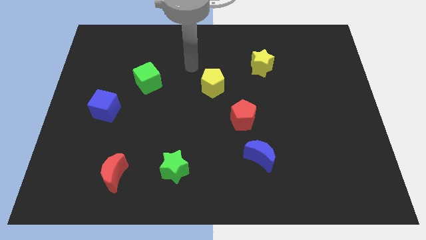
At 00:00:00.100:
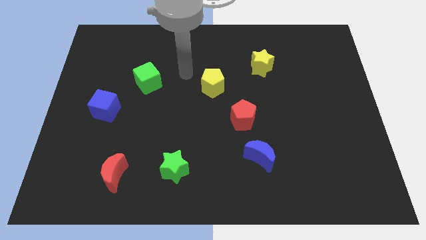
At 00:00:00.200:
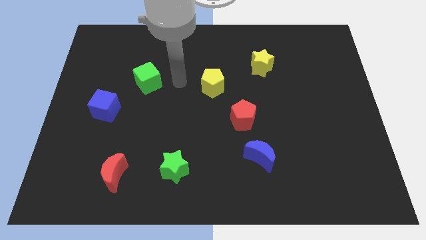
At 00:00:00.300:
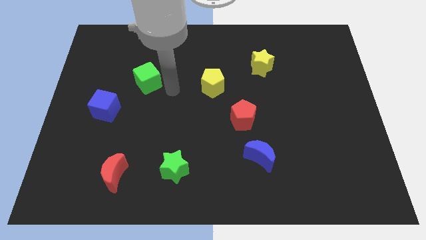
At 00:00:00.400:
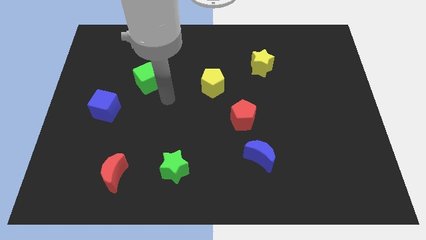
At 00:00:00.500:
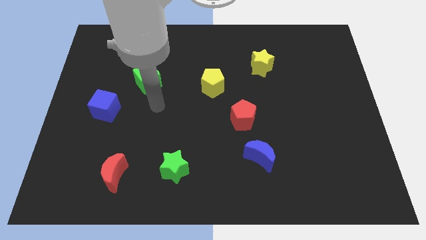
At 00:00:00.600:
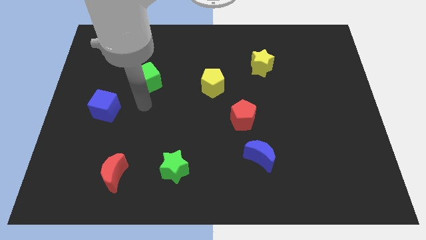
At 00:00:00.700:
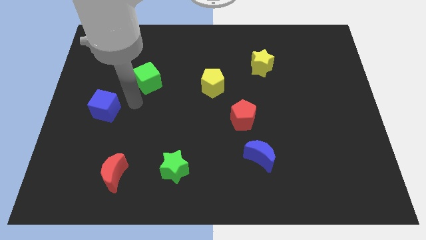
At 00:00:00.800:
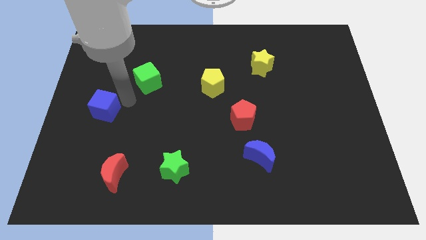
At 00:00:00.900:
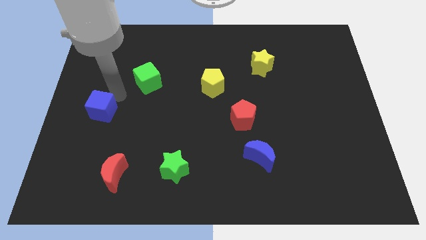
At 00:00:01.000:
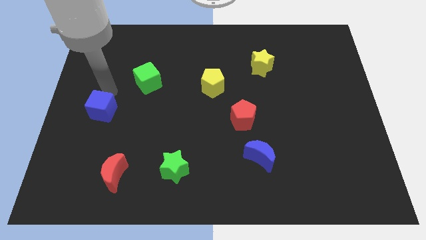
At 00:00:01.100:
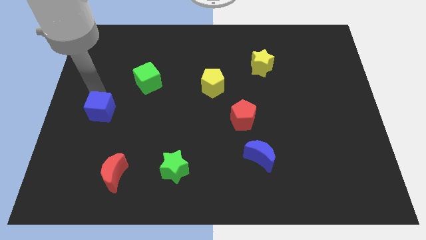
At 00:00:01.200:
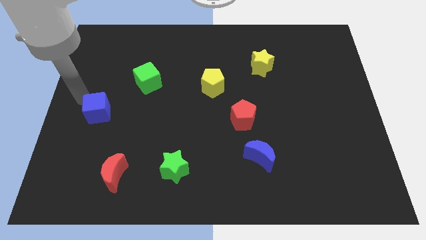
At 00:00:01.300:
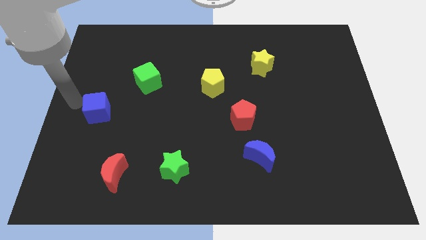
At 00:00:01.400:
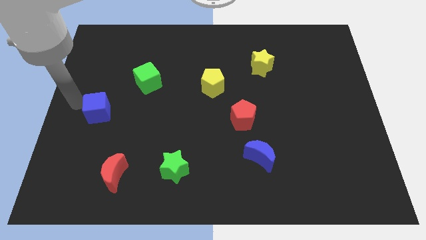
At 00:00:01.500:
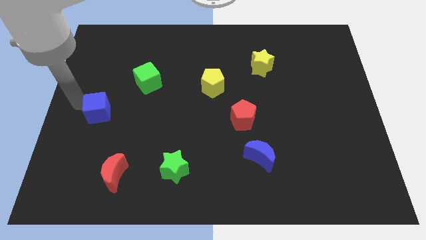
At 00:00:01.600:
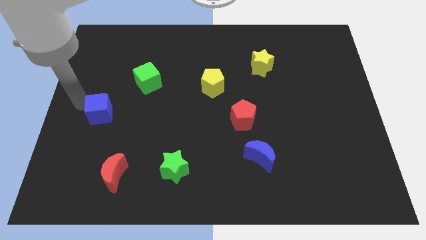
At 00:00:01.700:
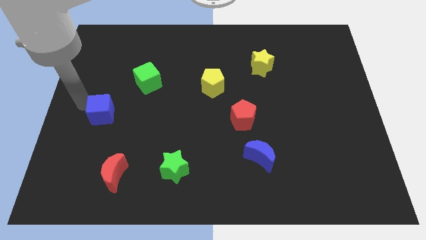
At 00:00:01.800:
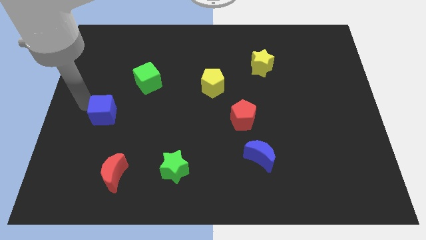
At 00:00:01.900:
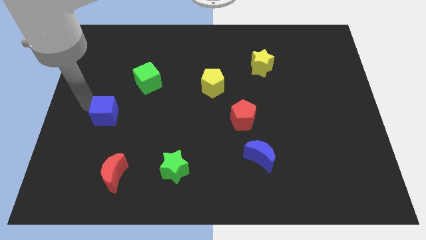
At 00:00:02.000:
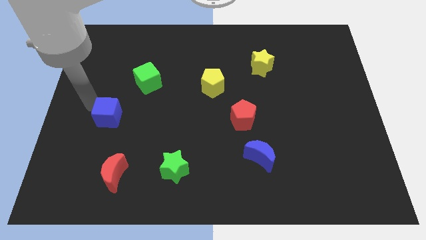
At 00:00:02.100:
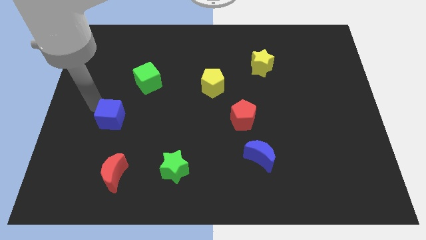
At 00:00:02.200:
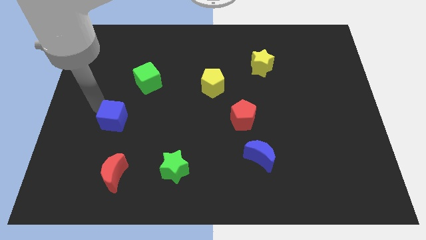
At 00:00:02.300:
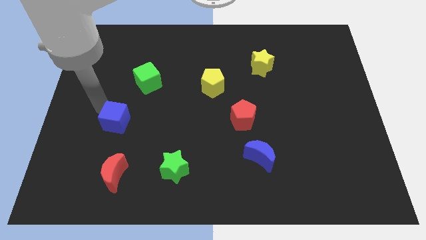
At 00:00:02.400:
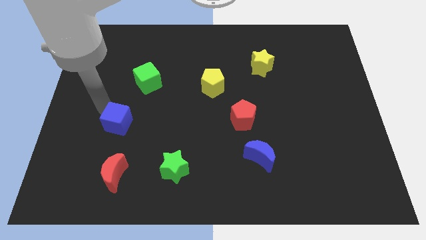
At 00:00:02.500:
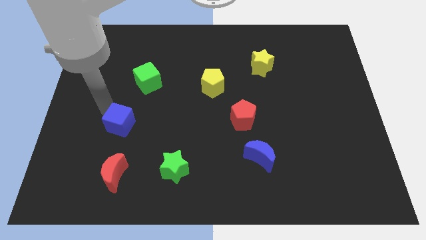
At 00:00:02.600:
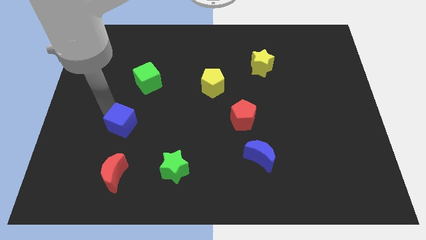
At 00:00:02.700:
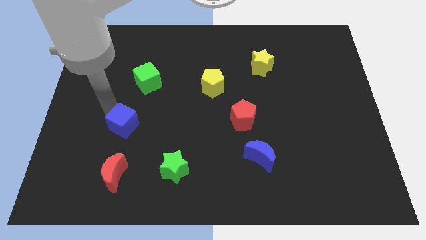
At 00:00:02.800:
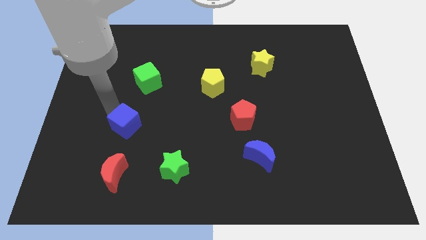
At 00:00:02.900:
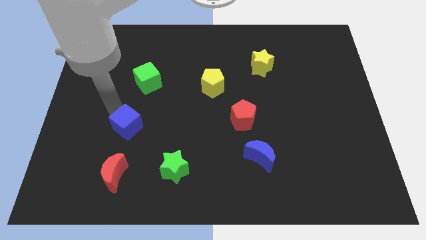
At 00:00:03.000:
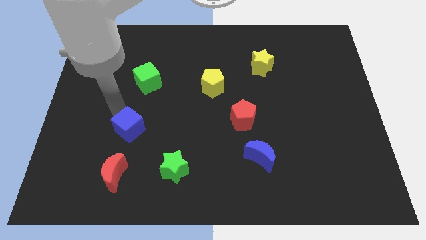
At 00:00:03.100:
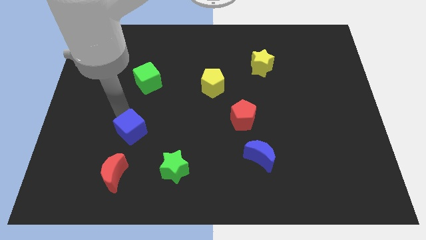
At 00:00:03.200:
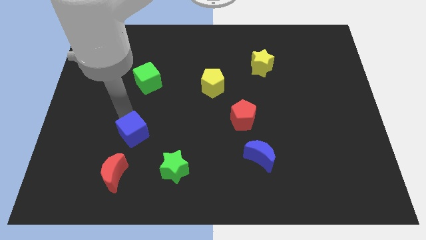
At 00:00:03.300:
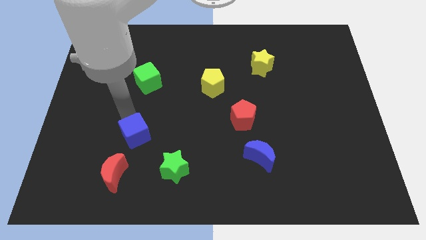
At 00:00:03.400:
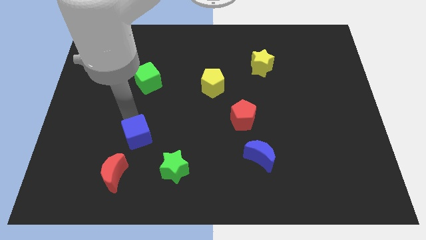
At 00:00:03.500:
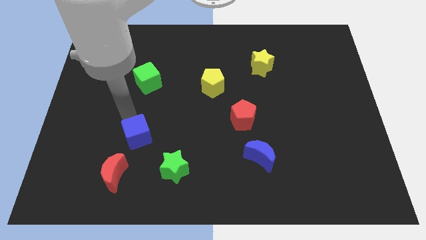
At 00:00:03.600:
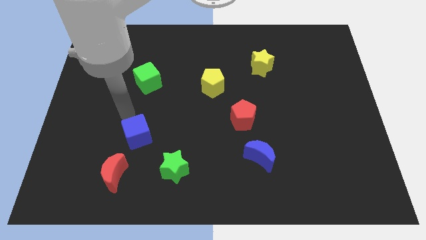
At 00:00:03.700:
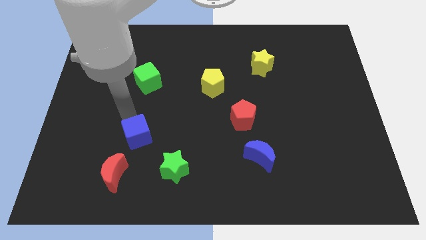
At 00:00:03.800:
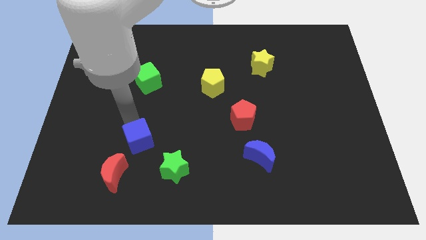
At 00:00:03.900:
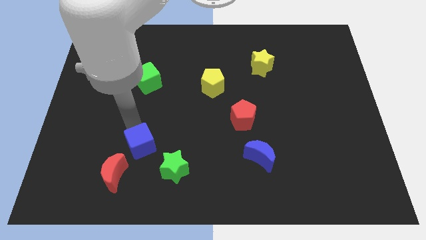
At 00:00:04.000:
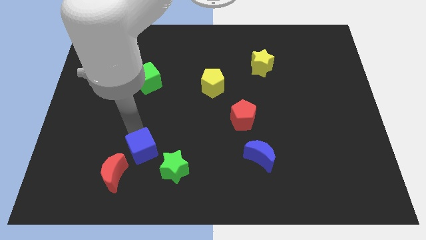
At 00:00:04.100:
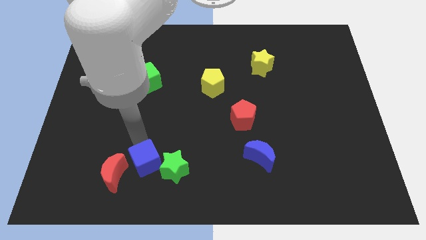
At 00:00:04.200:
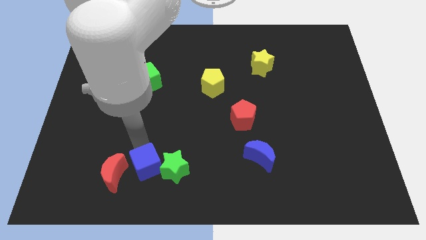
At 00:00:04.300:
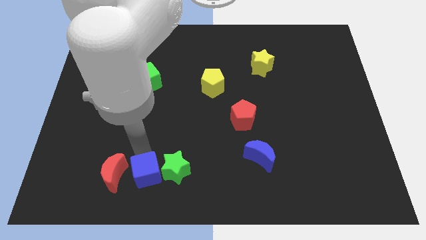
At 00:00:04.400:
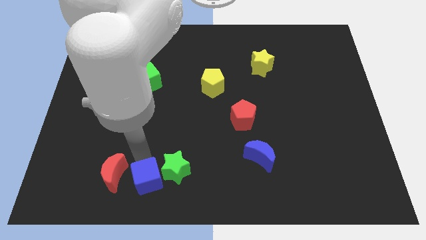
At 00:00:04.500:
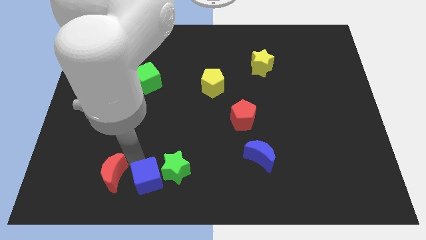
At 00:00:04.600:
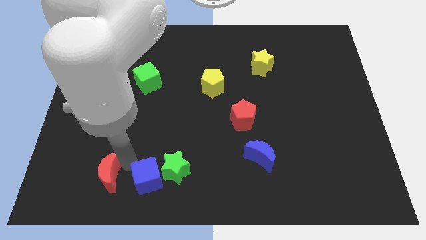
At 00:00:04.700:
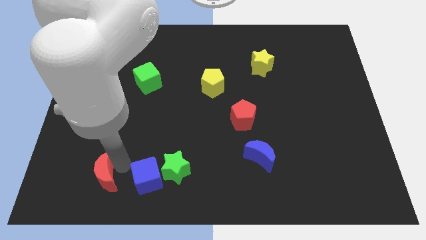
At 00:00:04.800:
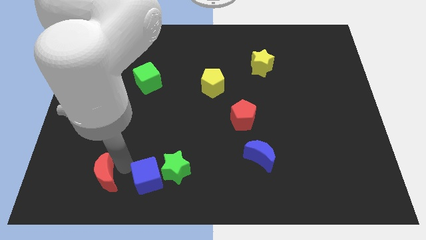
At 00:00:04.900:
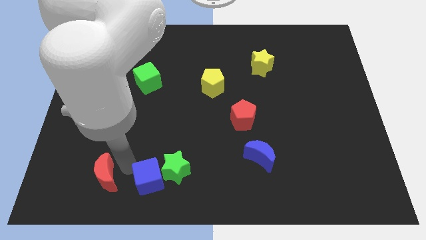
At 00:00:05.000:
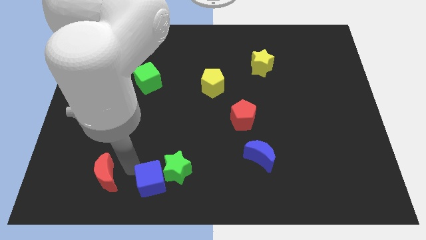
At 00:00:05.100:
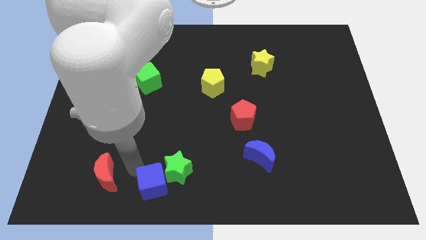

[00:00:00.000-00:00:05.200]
put the blue cube to the bottom

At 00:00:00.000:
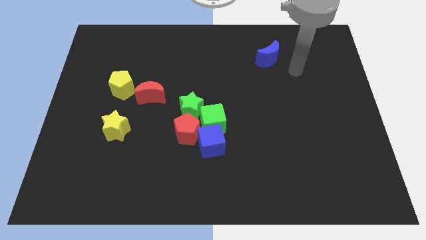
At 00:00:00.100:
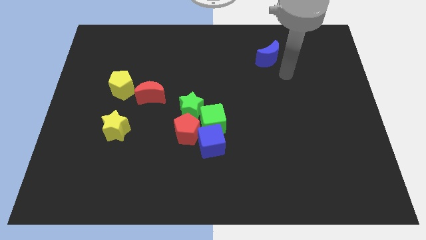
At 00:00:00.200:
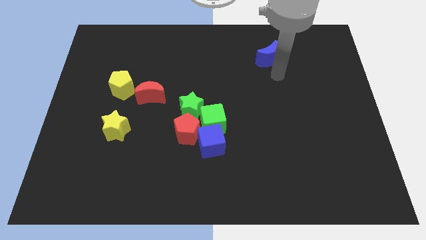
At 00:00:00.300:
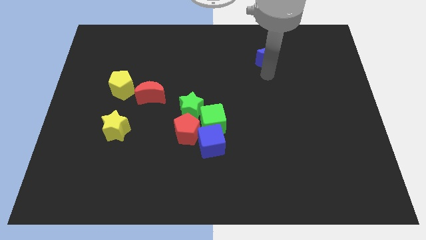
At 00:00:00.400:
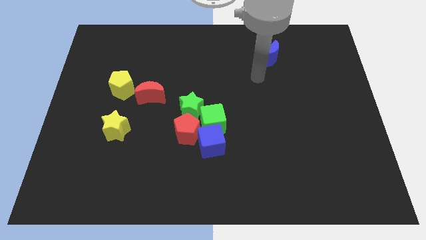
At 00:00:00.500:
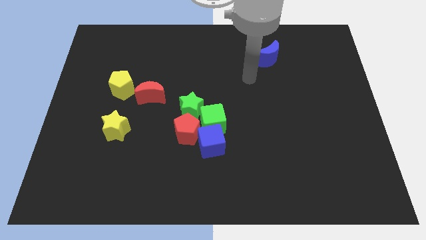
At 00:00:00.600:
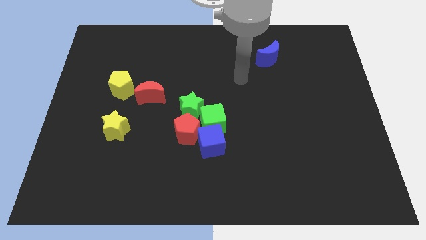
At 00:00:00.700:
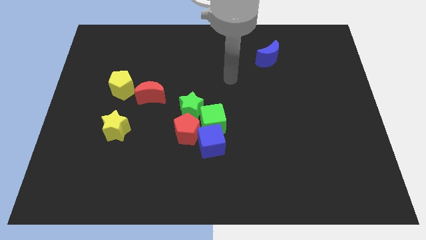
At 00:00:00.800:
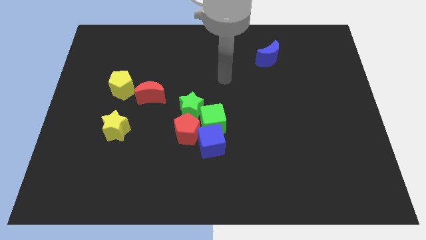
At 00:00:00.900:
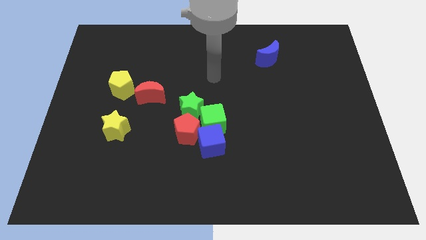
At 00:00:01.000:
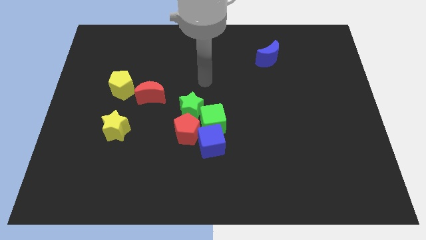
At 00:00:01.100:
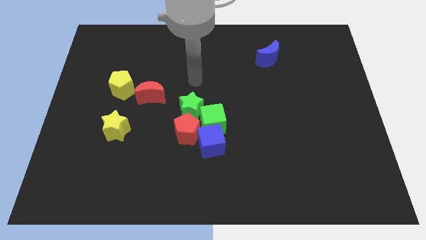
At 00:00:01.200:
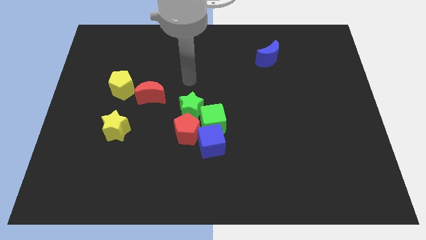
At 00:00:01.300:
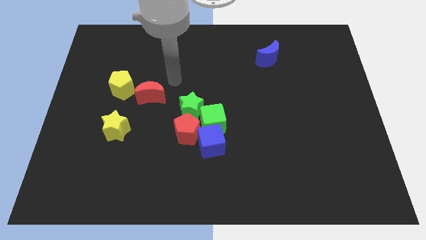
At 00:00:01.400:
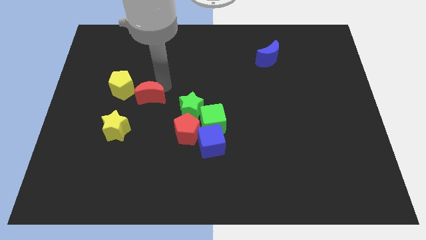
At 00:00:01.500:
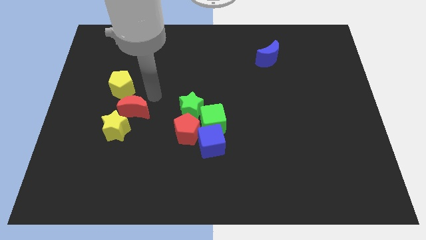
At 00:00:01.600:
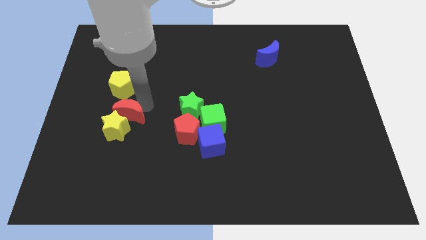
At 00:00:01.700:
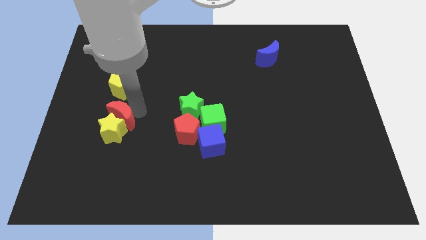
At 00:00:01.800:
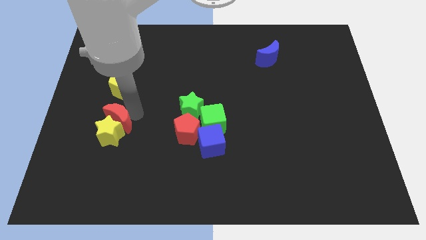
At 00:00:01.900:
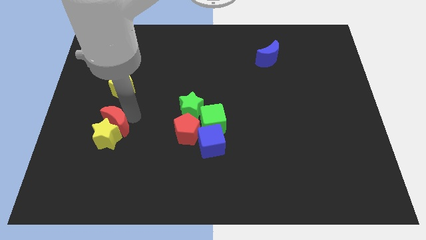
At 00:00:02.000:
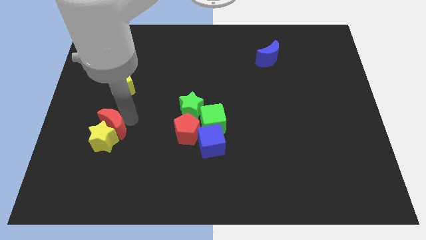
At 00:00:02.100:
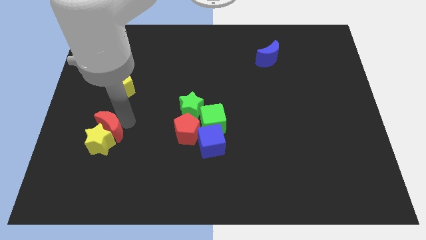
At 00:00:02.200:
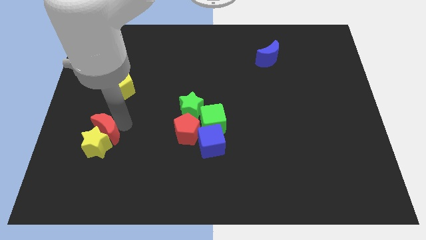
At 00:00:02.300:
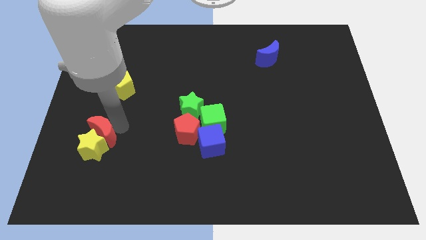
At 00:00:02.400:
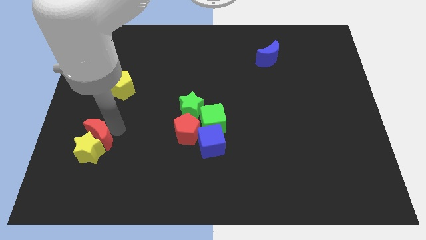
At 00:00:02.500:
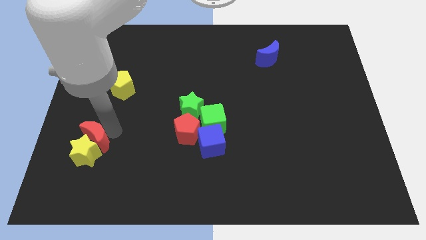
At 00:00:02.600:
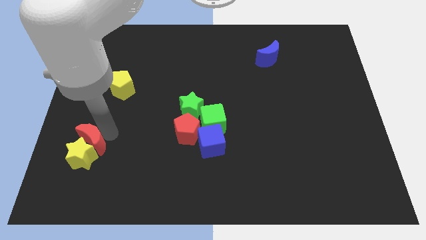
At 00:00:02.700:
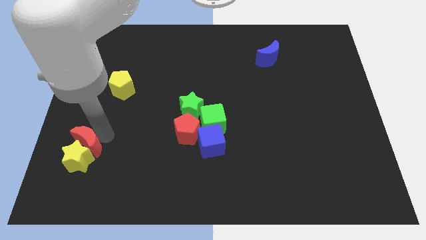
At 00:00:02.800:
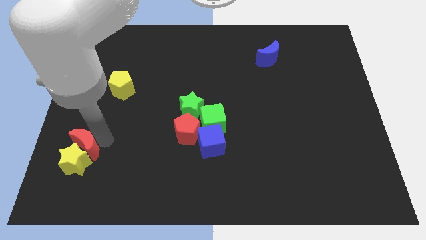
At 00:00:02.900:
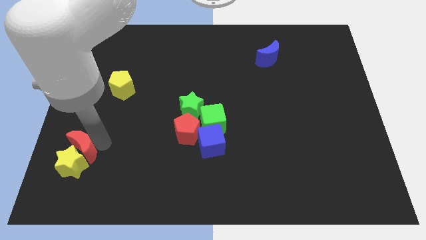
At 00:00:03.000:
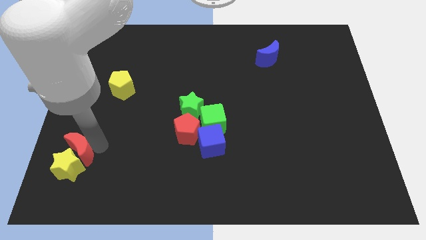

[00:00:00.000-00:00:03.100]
push the yellow star to the bottom left of the board
